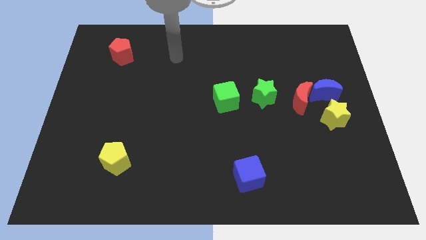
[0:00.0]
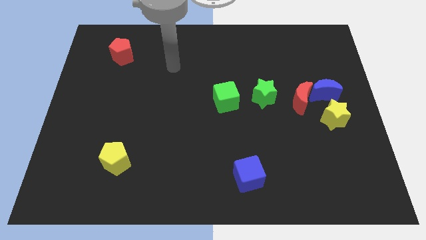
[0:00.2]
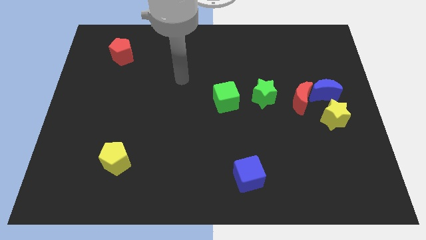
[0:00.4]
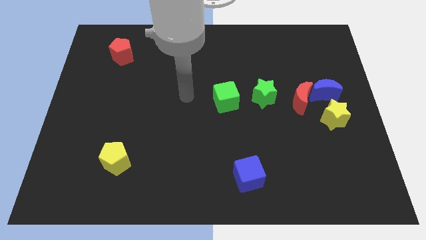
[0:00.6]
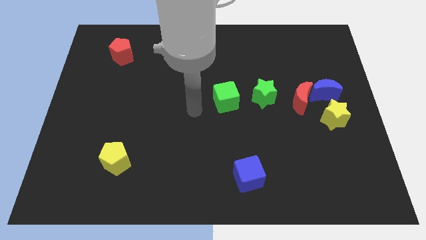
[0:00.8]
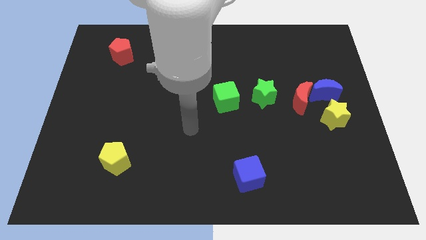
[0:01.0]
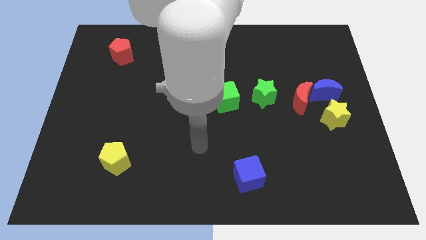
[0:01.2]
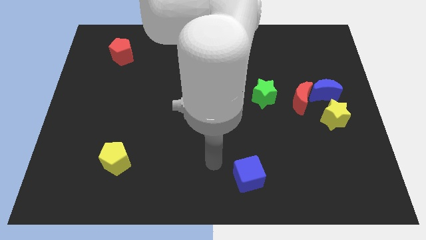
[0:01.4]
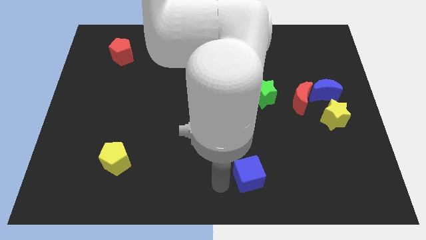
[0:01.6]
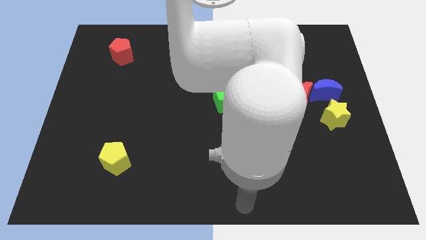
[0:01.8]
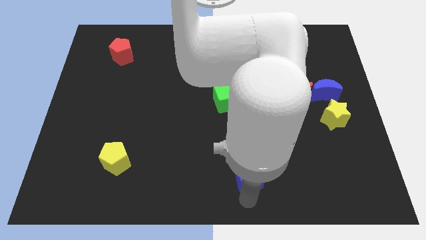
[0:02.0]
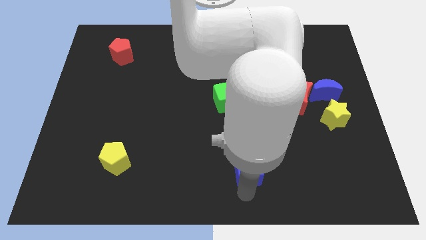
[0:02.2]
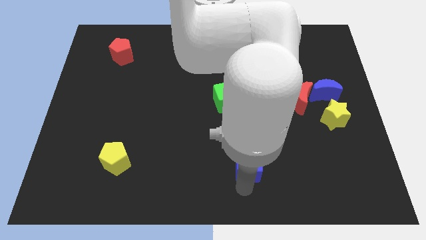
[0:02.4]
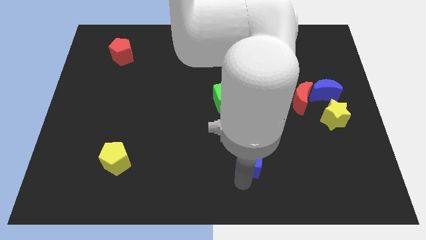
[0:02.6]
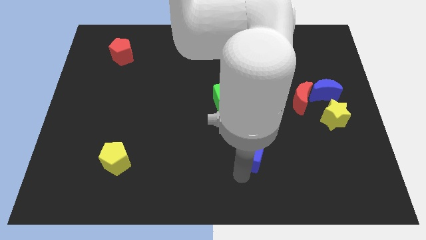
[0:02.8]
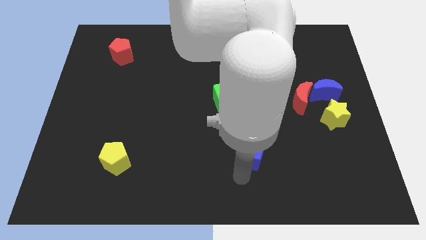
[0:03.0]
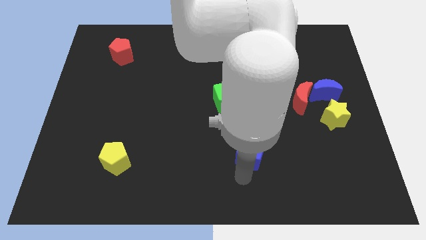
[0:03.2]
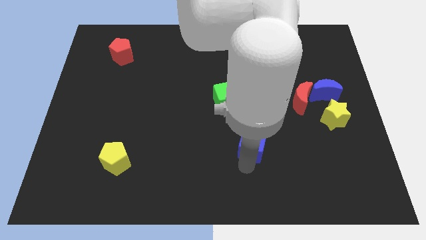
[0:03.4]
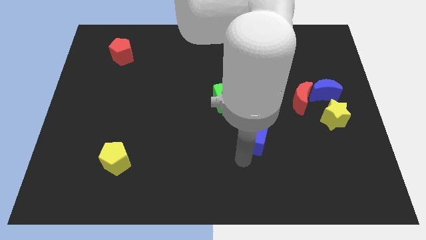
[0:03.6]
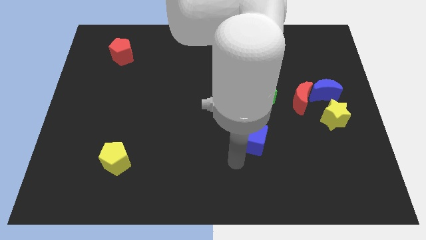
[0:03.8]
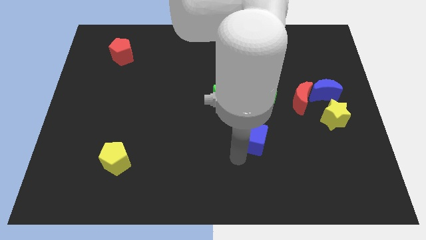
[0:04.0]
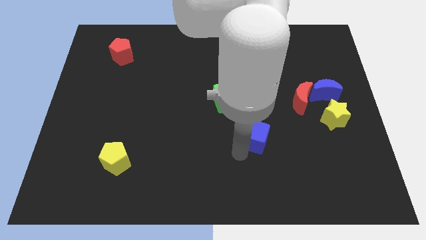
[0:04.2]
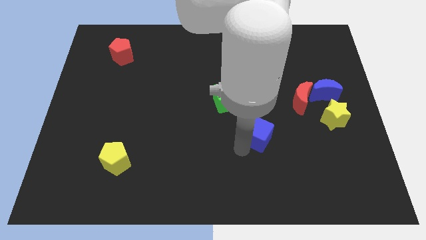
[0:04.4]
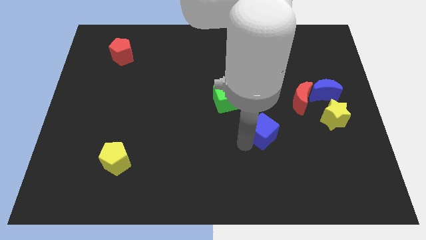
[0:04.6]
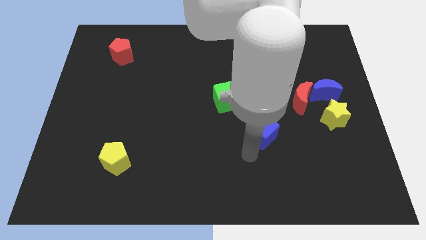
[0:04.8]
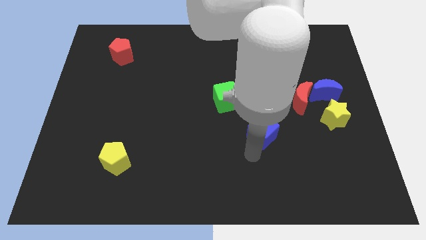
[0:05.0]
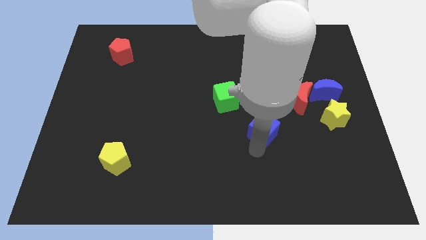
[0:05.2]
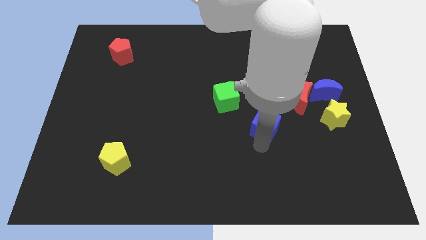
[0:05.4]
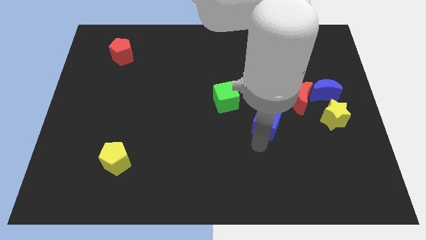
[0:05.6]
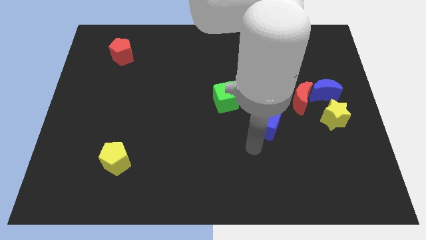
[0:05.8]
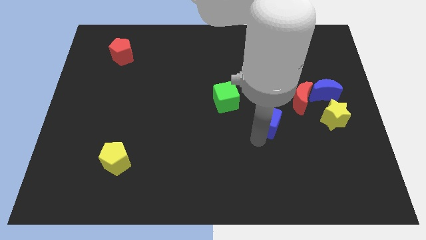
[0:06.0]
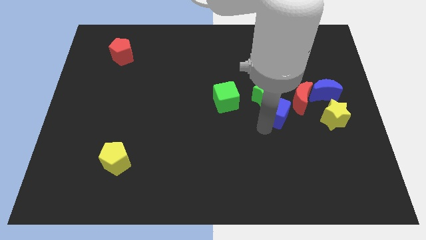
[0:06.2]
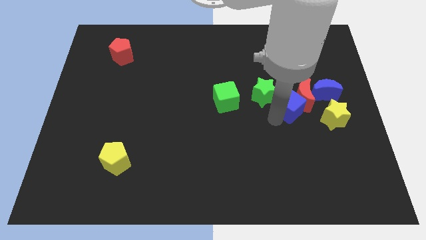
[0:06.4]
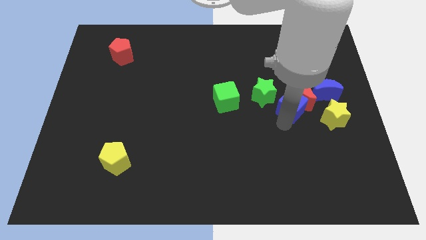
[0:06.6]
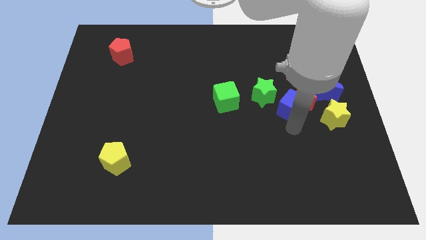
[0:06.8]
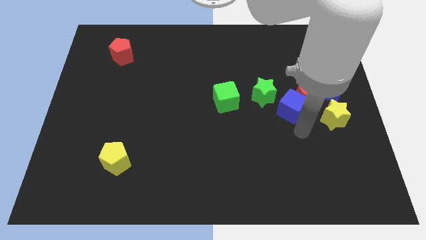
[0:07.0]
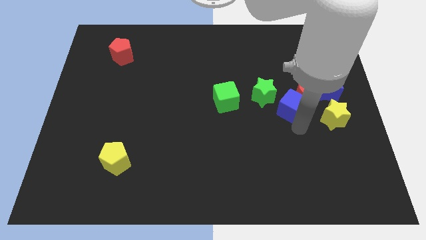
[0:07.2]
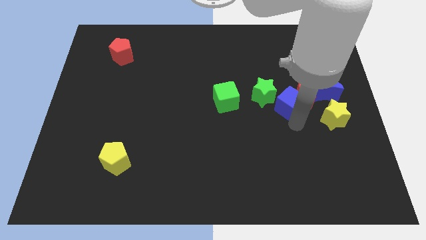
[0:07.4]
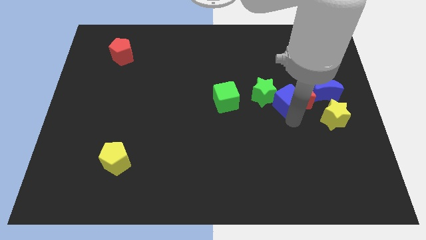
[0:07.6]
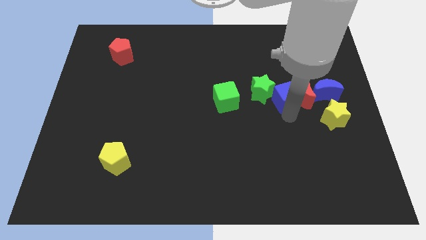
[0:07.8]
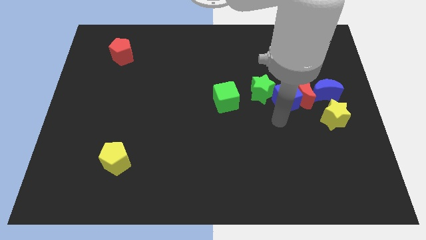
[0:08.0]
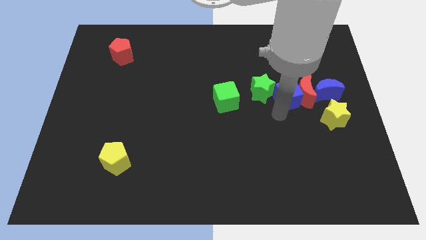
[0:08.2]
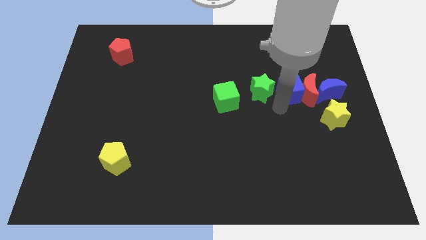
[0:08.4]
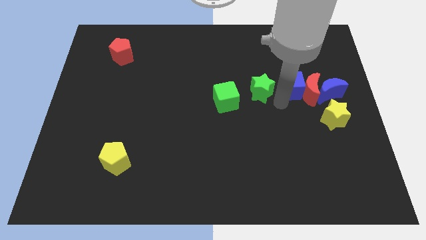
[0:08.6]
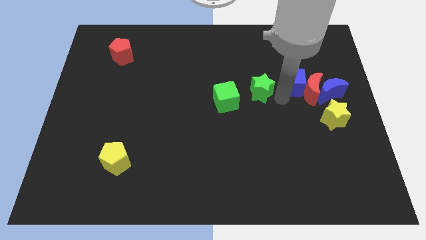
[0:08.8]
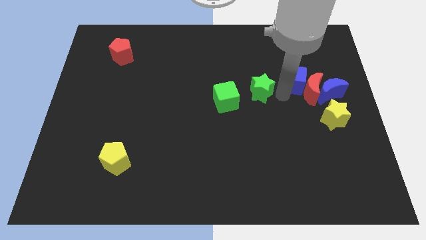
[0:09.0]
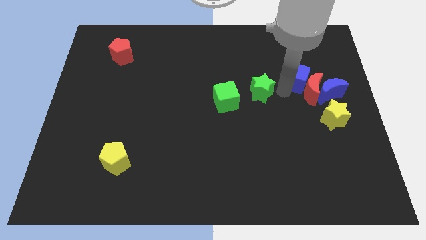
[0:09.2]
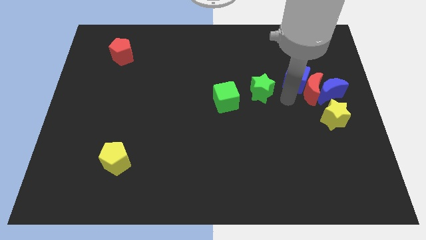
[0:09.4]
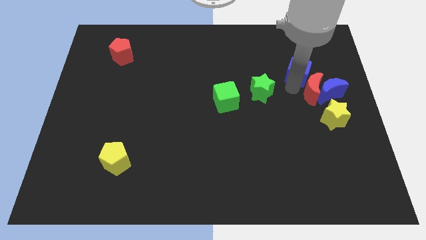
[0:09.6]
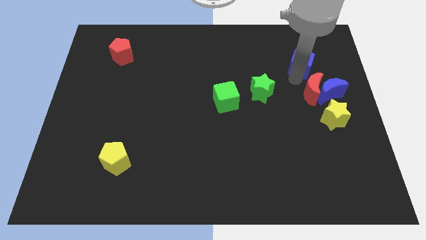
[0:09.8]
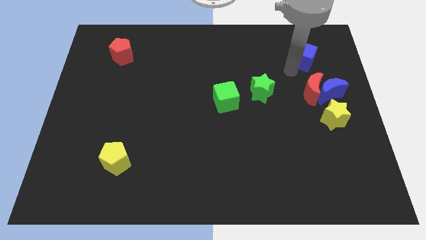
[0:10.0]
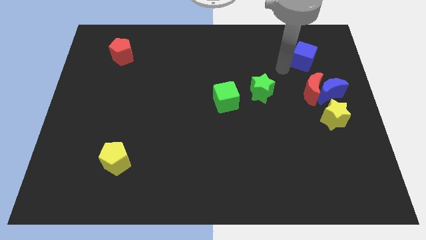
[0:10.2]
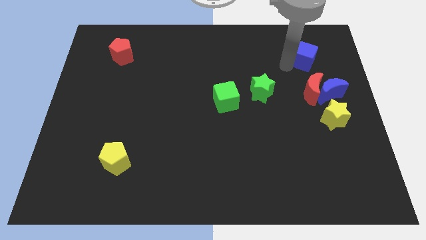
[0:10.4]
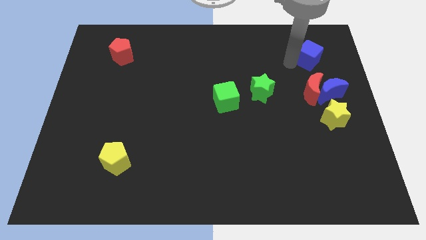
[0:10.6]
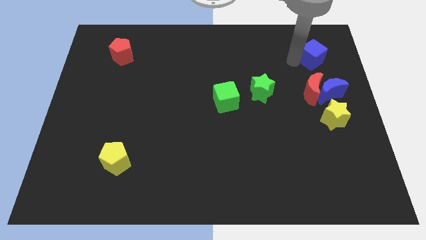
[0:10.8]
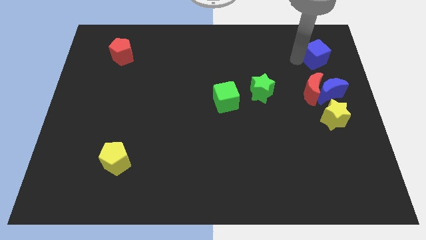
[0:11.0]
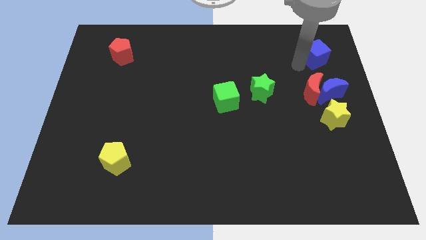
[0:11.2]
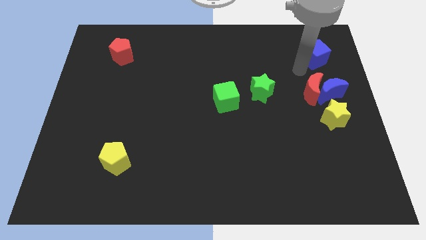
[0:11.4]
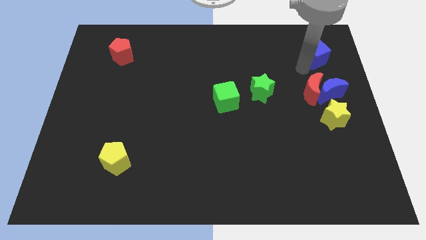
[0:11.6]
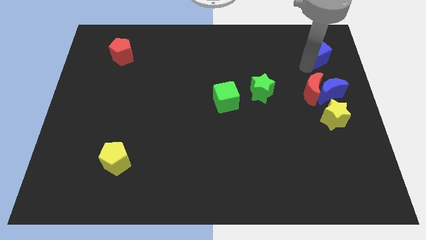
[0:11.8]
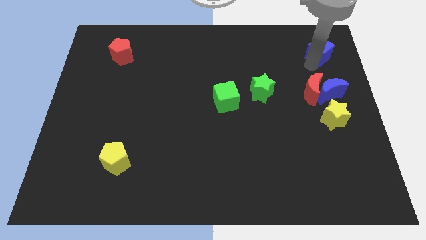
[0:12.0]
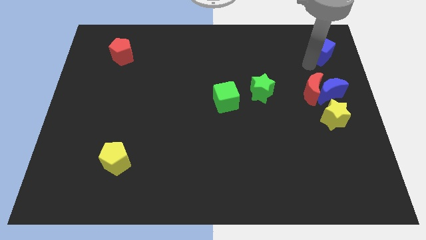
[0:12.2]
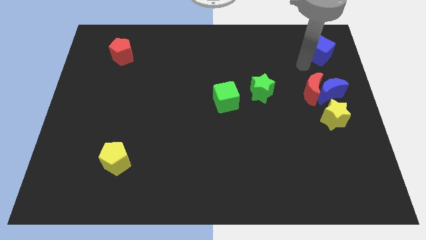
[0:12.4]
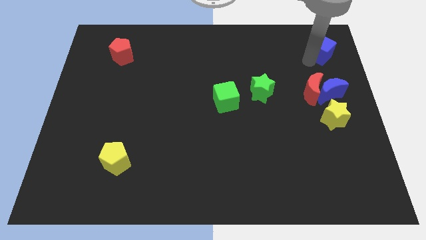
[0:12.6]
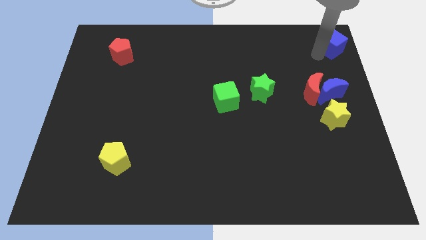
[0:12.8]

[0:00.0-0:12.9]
put the blue cube to the top right corner
